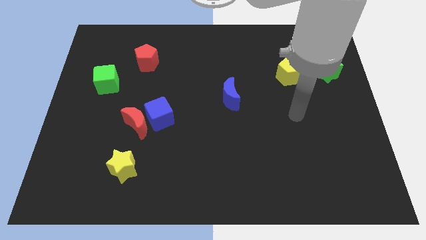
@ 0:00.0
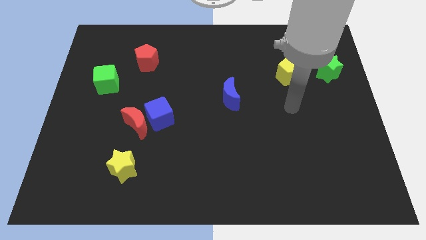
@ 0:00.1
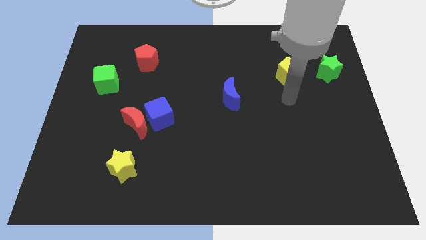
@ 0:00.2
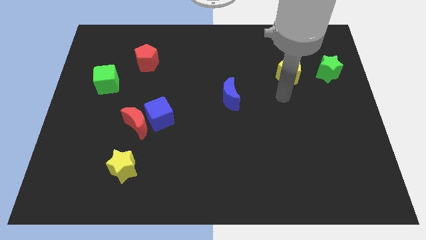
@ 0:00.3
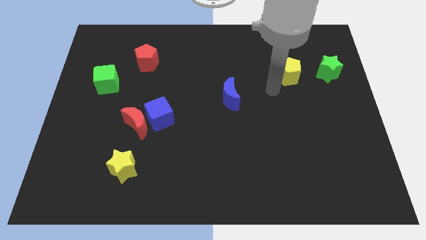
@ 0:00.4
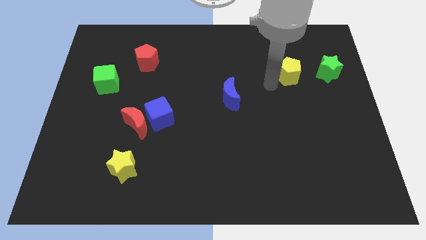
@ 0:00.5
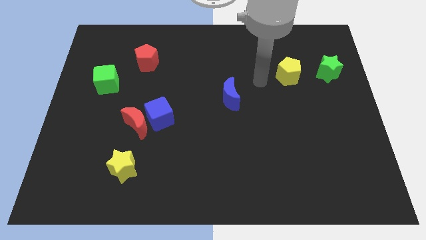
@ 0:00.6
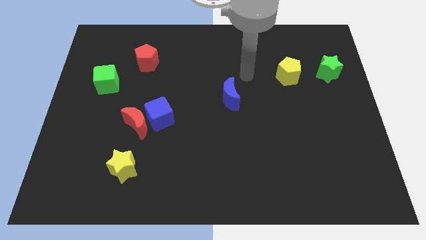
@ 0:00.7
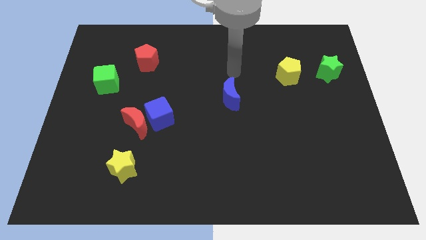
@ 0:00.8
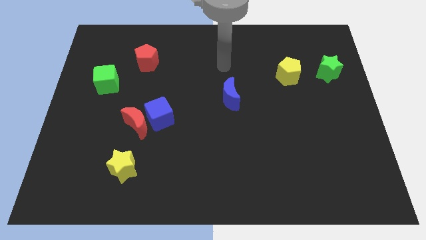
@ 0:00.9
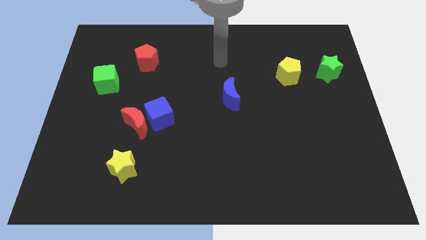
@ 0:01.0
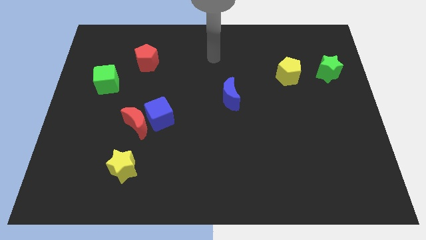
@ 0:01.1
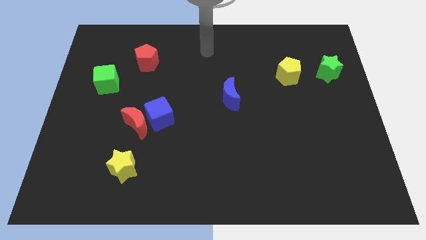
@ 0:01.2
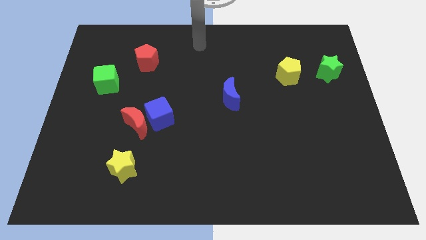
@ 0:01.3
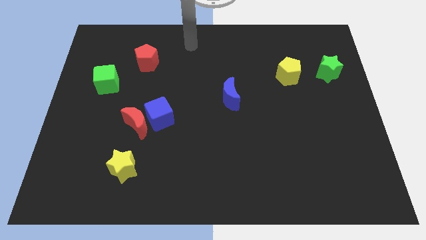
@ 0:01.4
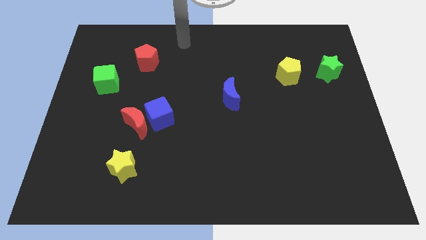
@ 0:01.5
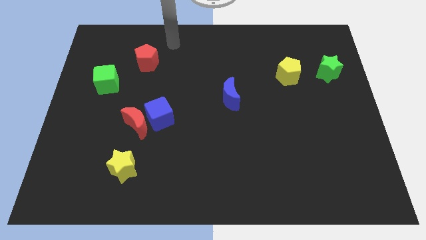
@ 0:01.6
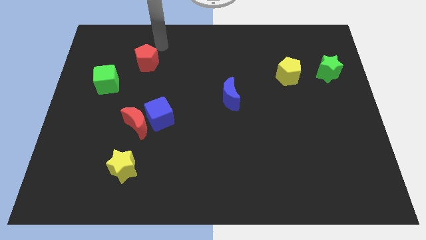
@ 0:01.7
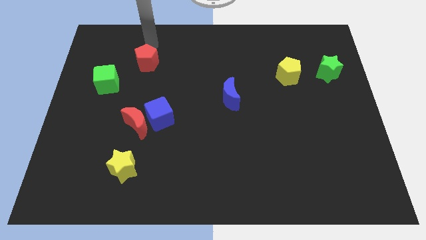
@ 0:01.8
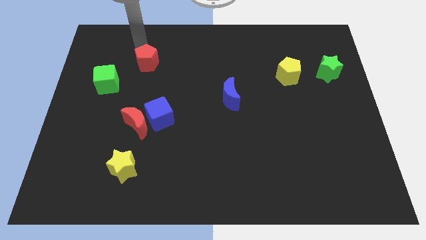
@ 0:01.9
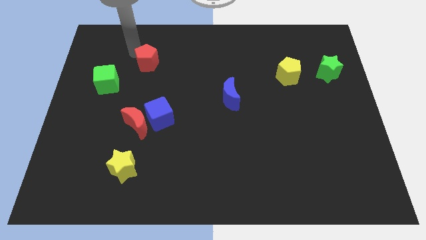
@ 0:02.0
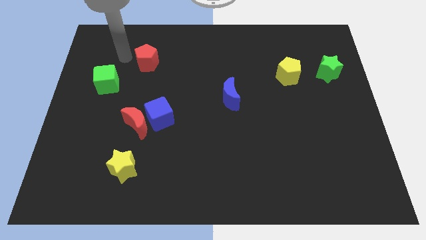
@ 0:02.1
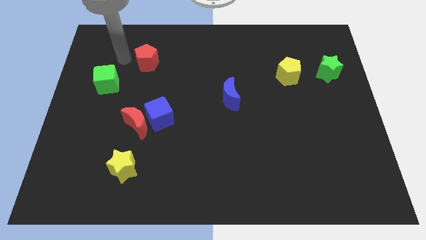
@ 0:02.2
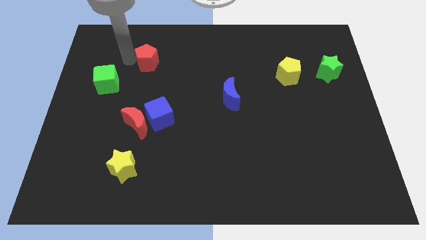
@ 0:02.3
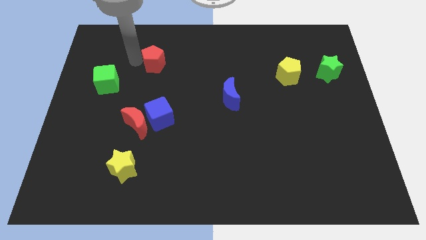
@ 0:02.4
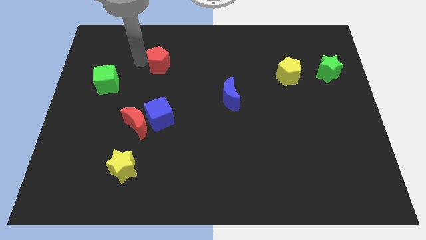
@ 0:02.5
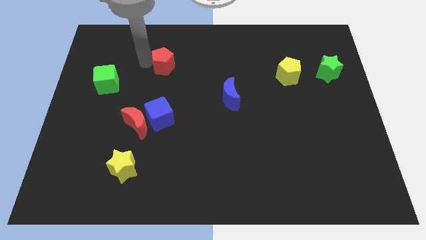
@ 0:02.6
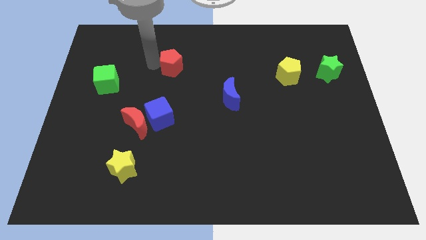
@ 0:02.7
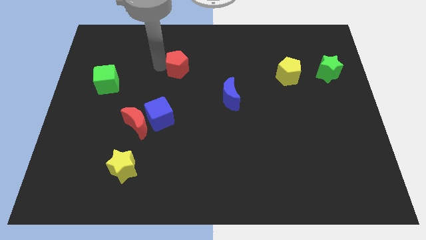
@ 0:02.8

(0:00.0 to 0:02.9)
push the red pentagon a little bit right

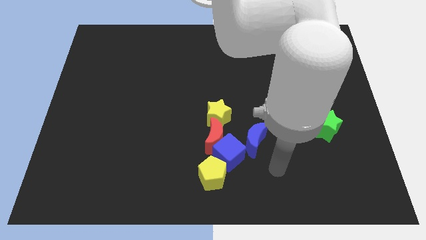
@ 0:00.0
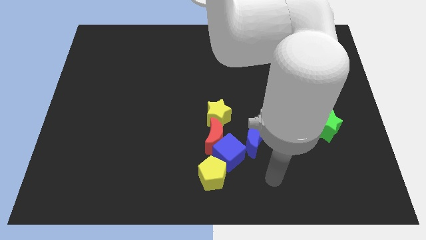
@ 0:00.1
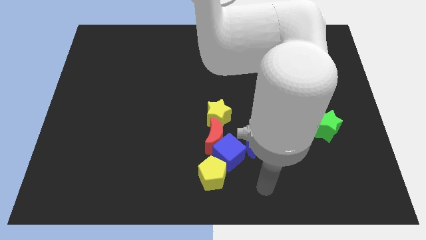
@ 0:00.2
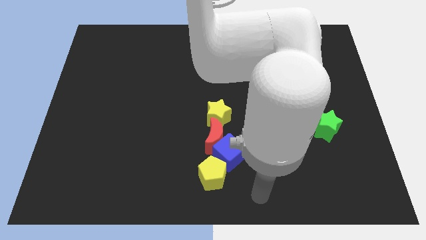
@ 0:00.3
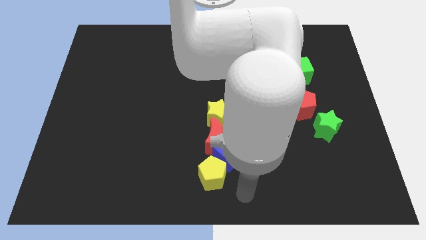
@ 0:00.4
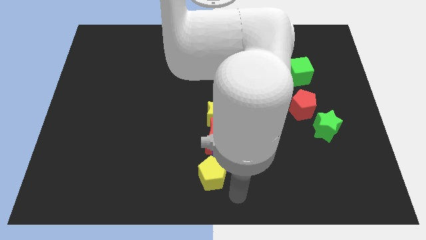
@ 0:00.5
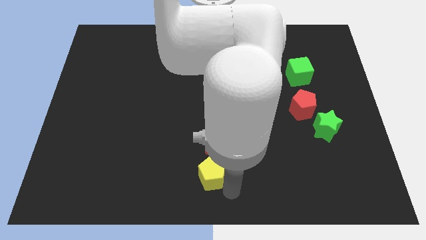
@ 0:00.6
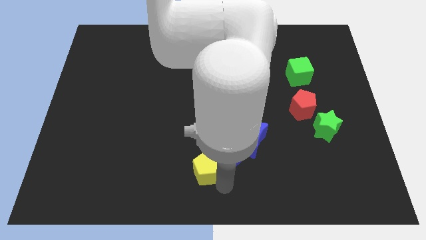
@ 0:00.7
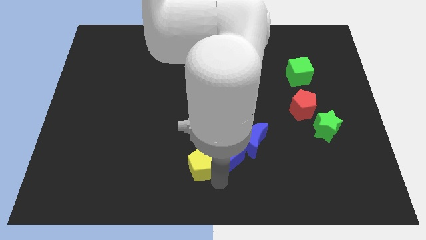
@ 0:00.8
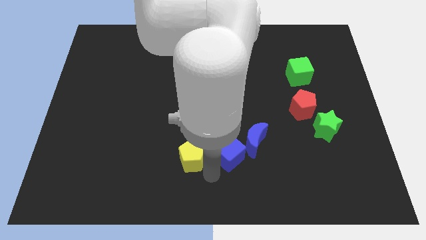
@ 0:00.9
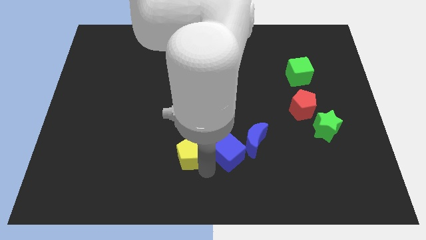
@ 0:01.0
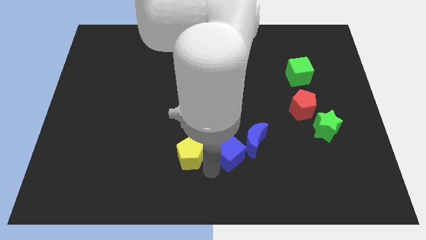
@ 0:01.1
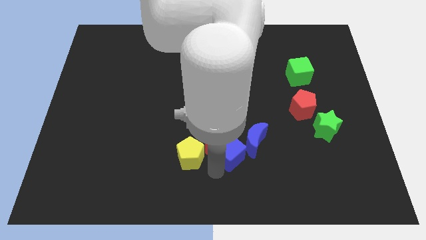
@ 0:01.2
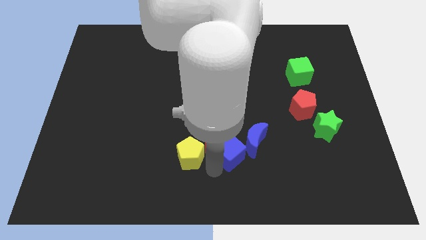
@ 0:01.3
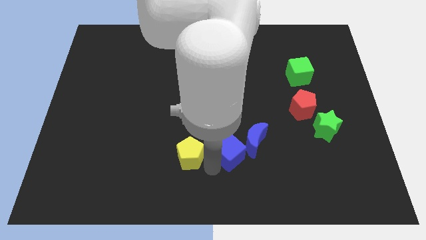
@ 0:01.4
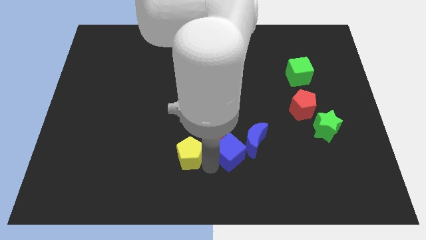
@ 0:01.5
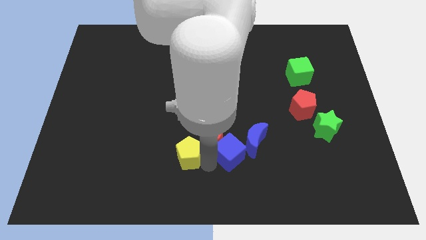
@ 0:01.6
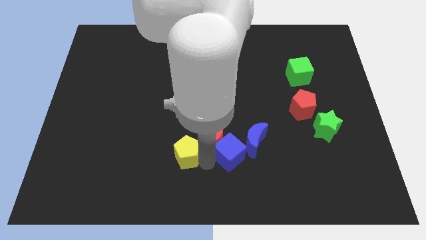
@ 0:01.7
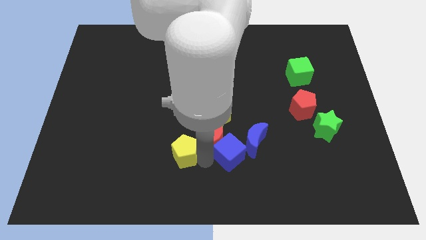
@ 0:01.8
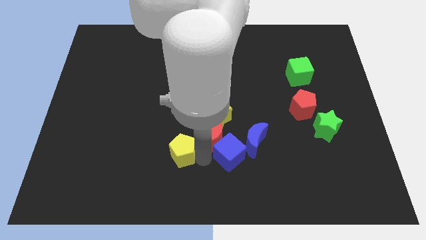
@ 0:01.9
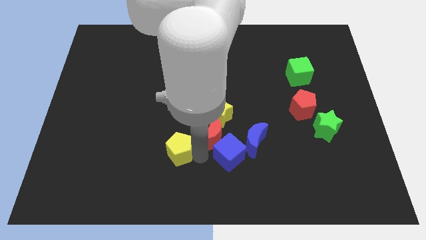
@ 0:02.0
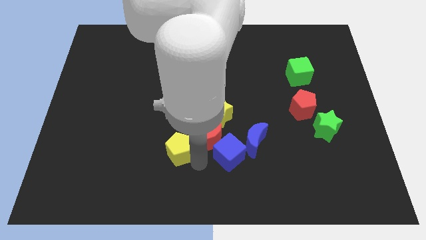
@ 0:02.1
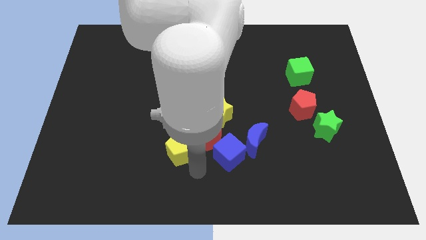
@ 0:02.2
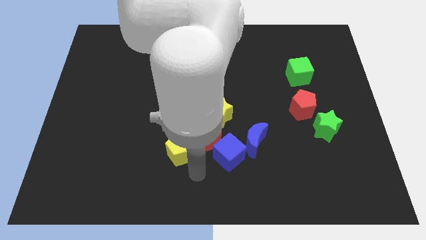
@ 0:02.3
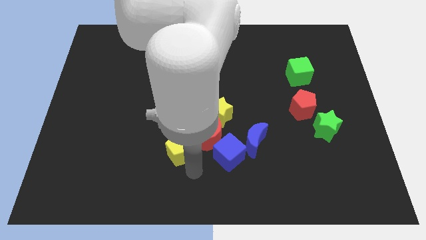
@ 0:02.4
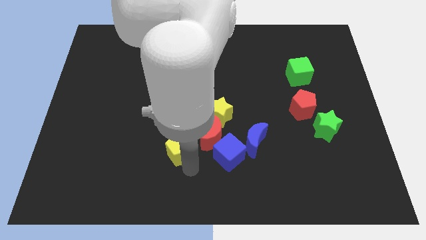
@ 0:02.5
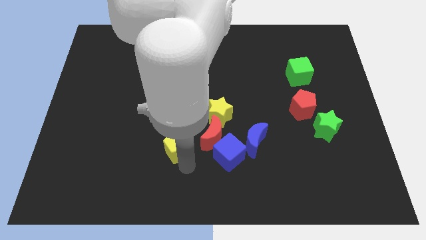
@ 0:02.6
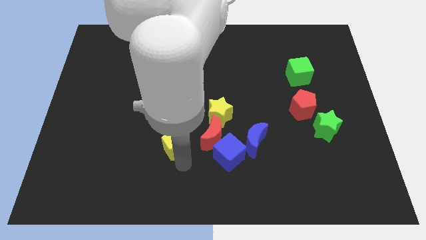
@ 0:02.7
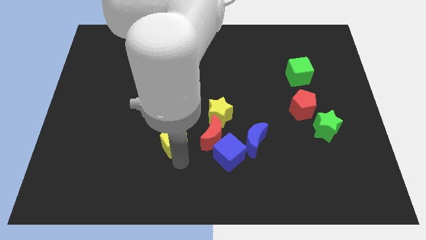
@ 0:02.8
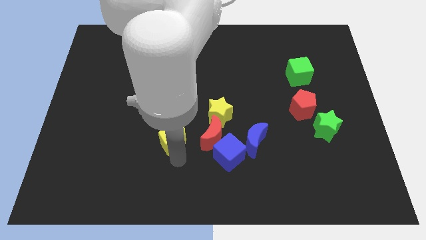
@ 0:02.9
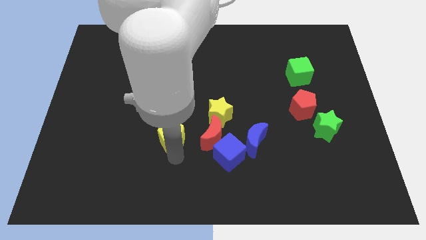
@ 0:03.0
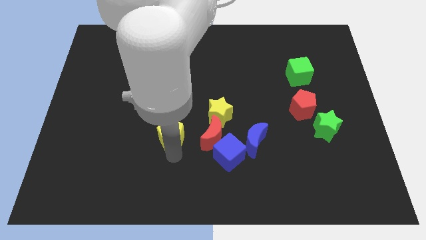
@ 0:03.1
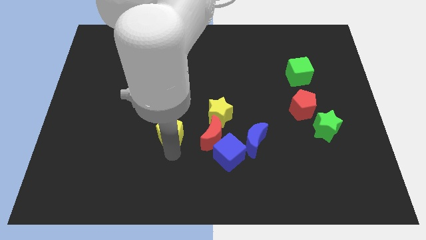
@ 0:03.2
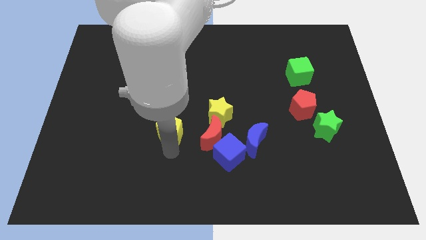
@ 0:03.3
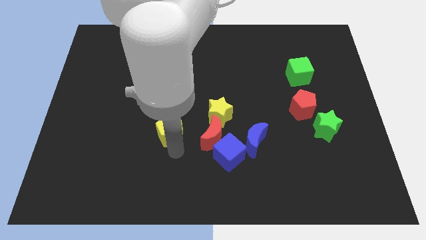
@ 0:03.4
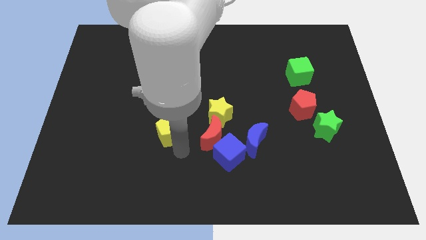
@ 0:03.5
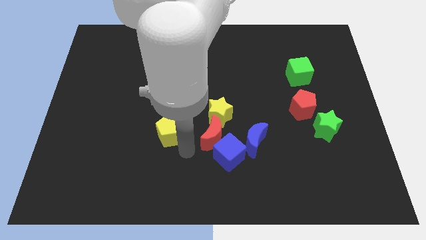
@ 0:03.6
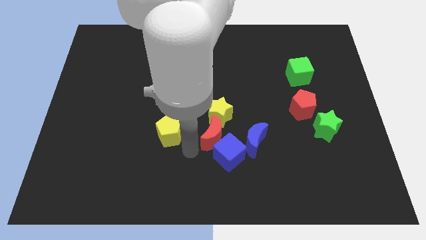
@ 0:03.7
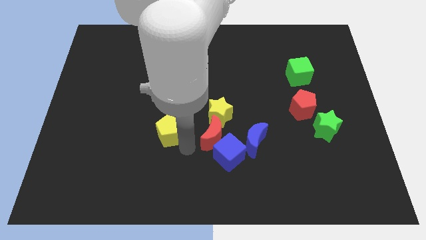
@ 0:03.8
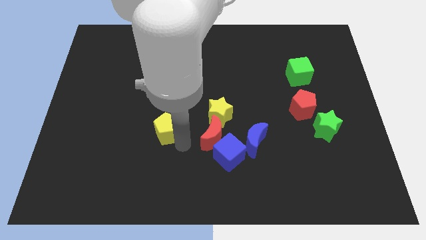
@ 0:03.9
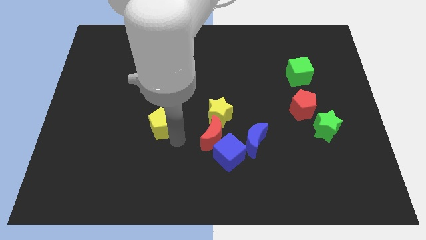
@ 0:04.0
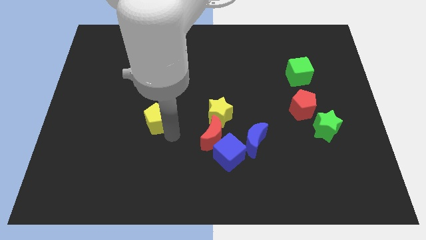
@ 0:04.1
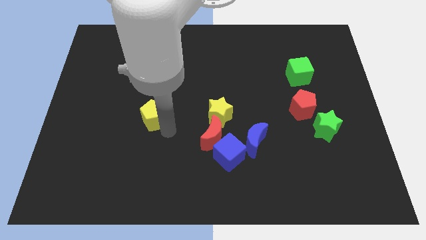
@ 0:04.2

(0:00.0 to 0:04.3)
push the yellow pentagon diagonally upwards and to the left

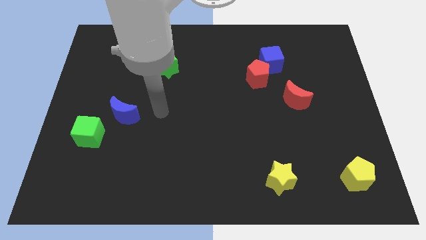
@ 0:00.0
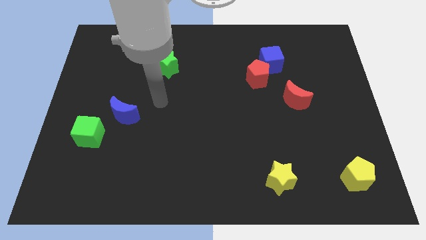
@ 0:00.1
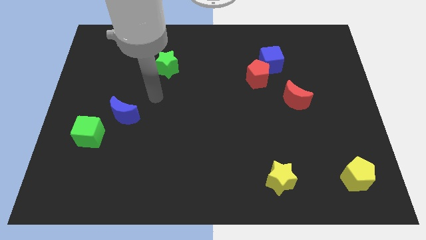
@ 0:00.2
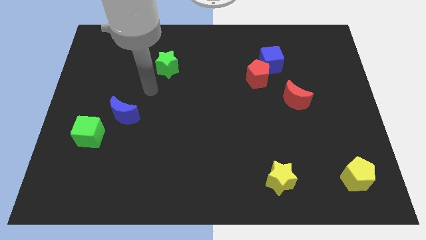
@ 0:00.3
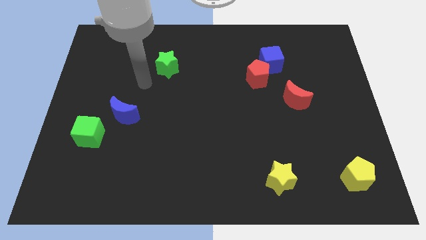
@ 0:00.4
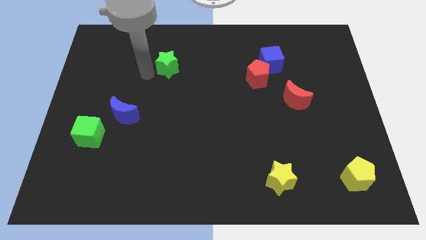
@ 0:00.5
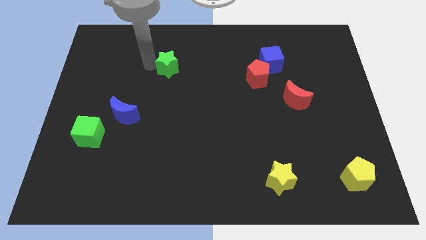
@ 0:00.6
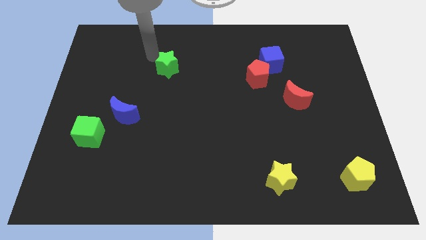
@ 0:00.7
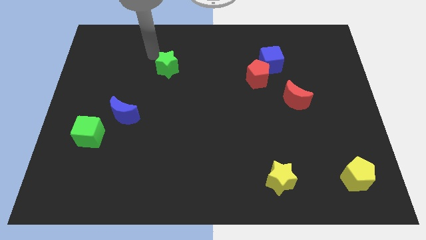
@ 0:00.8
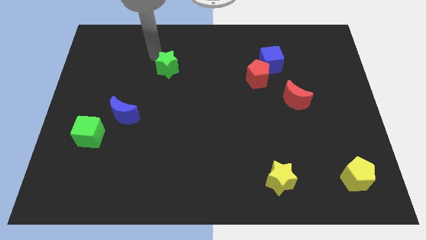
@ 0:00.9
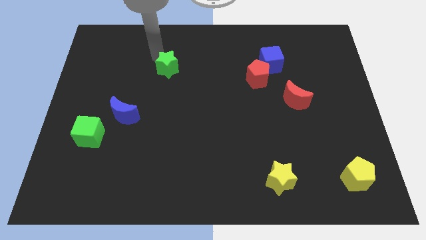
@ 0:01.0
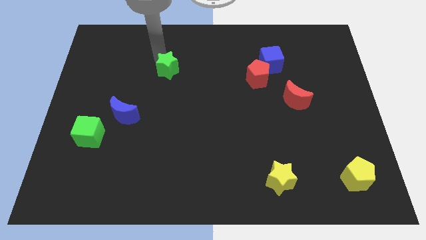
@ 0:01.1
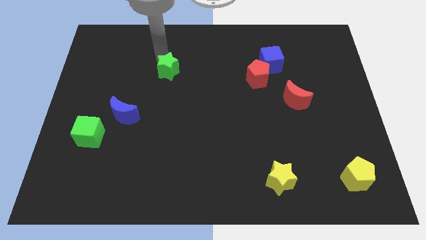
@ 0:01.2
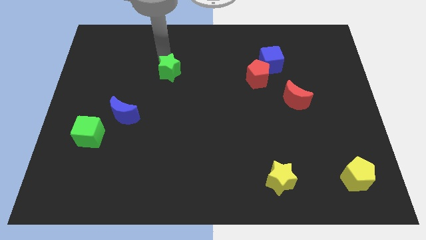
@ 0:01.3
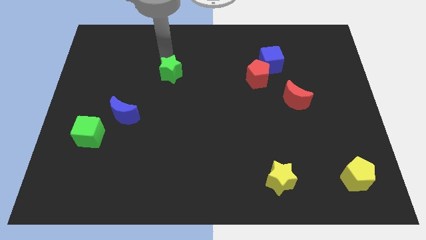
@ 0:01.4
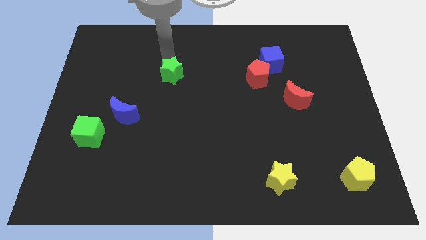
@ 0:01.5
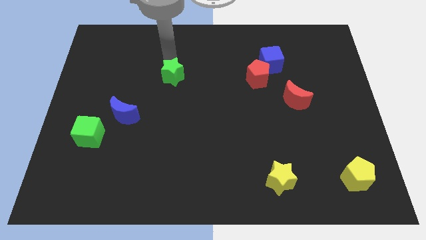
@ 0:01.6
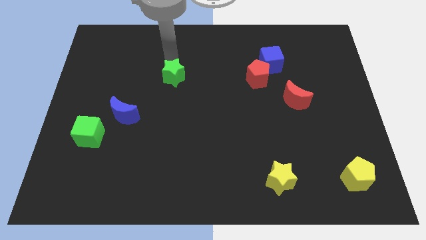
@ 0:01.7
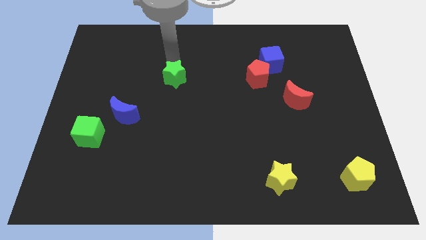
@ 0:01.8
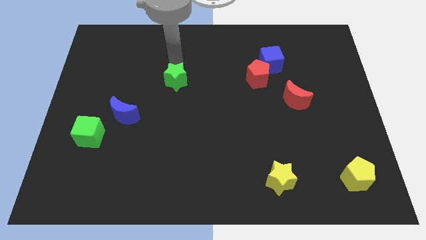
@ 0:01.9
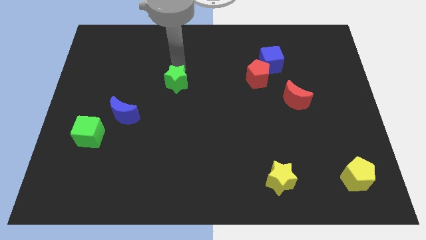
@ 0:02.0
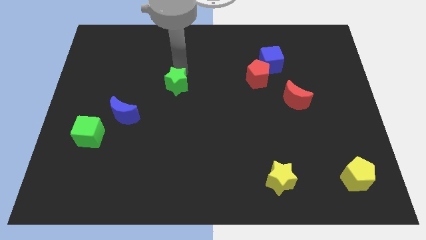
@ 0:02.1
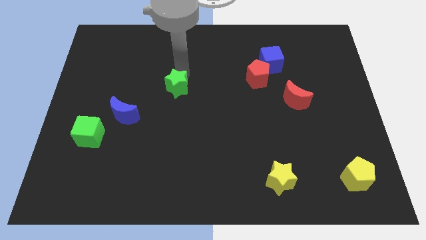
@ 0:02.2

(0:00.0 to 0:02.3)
slightly slide the green star diagonally downwards and right
